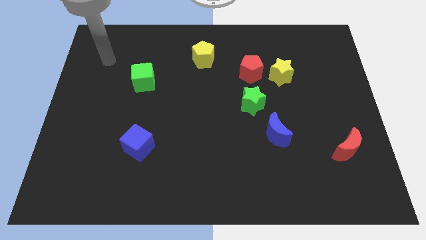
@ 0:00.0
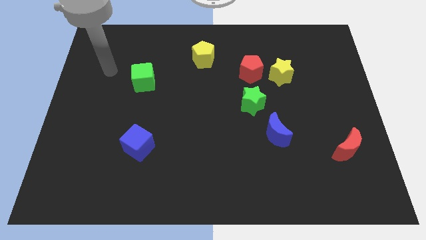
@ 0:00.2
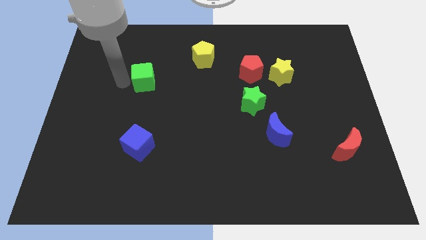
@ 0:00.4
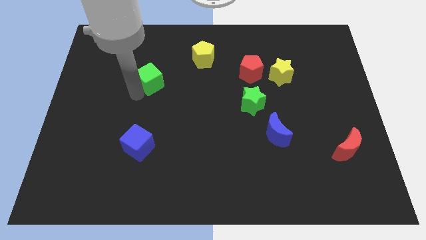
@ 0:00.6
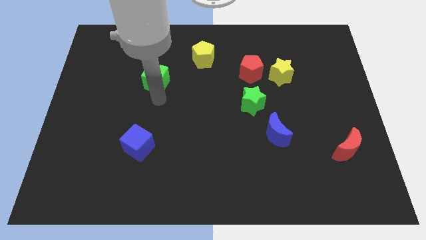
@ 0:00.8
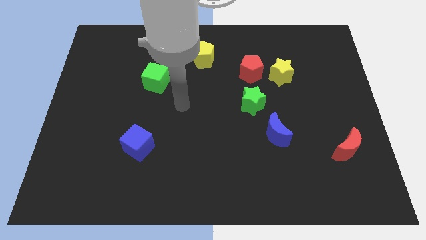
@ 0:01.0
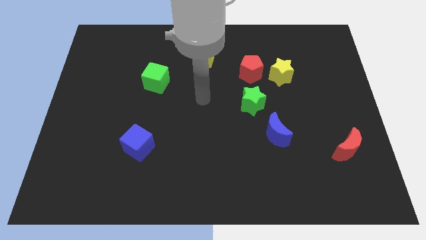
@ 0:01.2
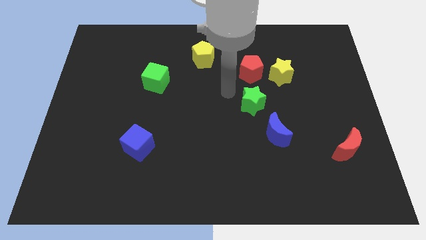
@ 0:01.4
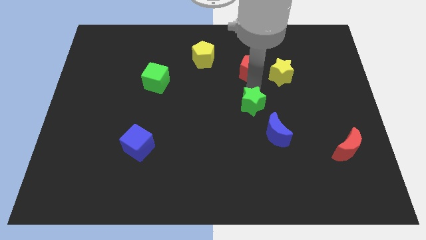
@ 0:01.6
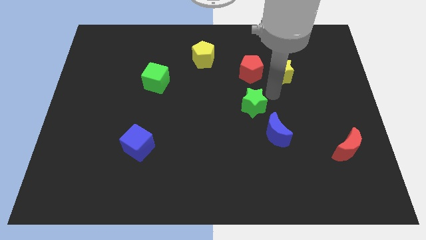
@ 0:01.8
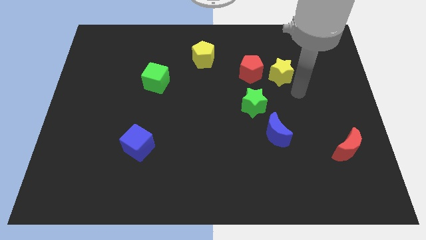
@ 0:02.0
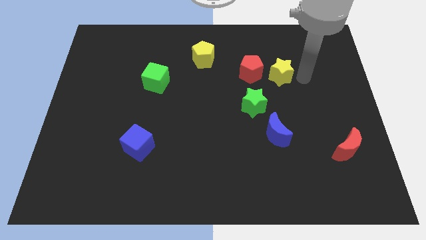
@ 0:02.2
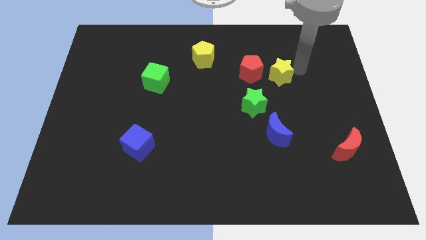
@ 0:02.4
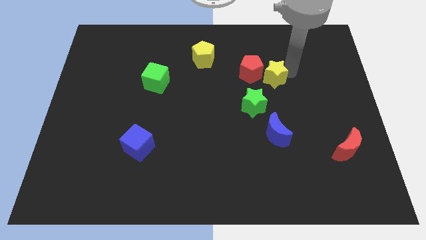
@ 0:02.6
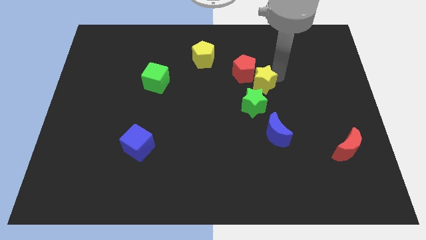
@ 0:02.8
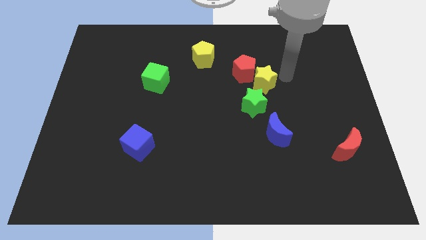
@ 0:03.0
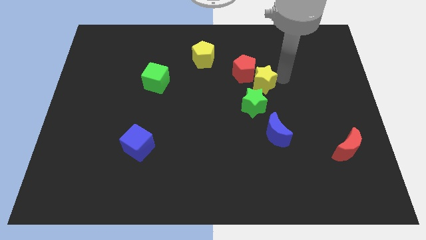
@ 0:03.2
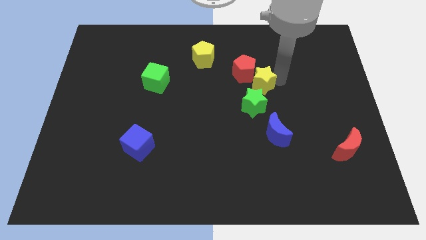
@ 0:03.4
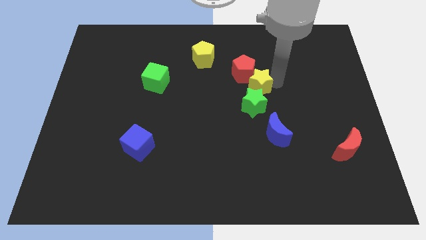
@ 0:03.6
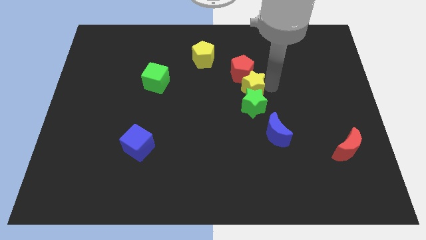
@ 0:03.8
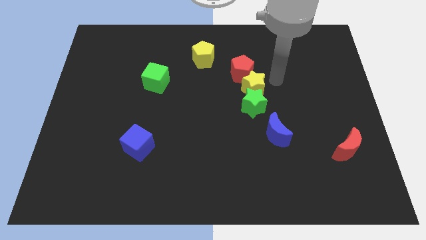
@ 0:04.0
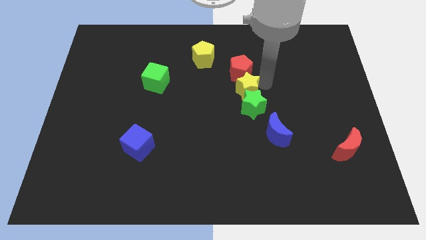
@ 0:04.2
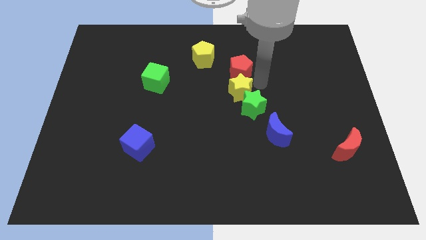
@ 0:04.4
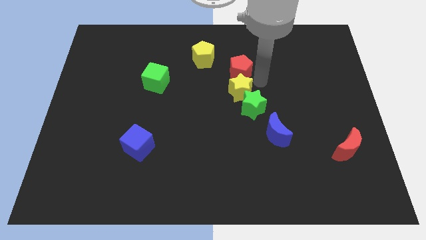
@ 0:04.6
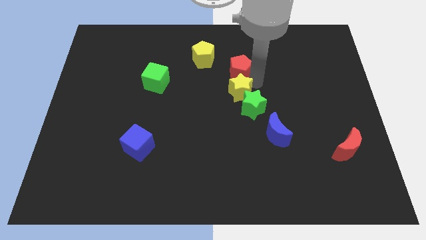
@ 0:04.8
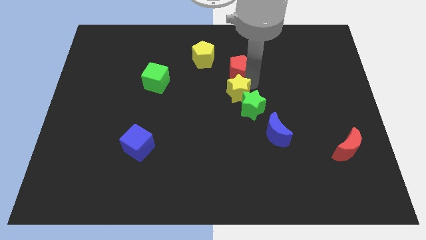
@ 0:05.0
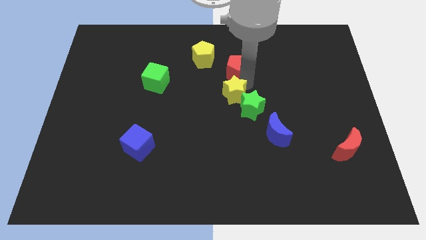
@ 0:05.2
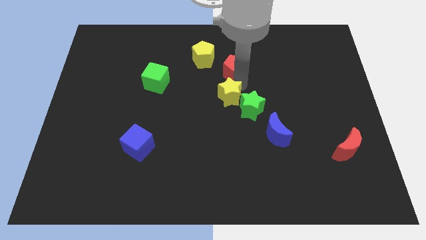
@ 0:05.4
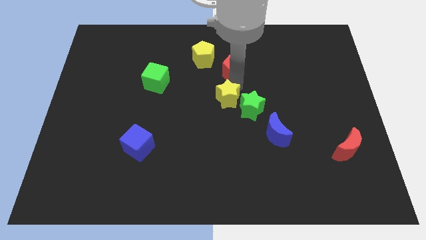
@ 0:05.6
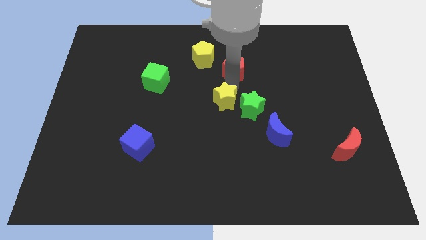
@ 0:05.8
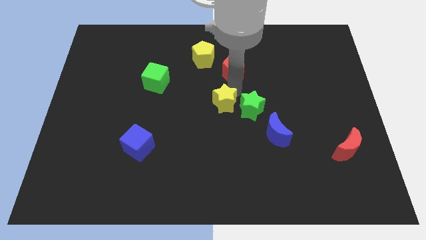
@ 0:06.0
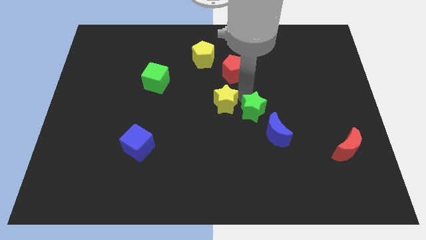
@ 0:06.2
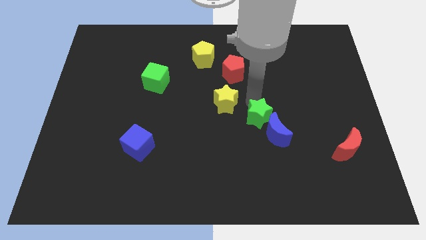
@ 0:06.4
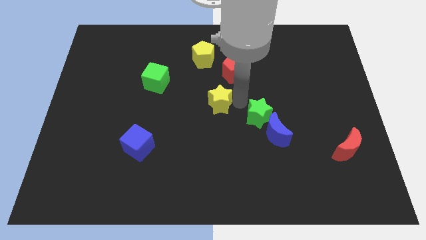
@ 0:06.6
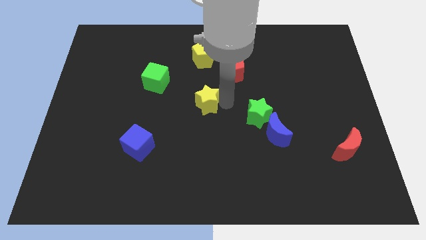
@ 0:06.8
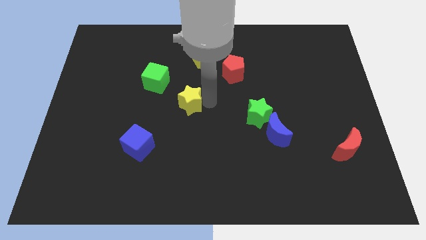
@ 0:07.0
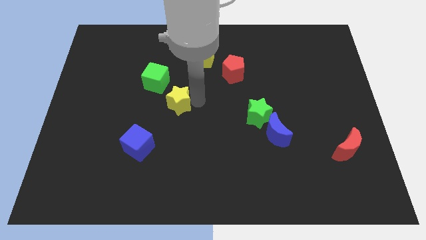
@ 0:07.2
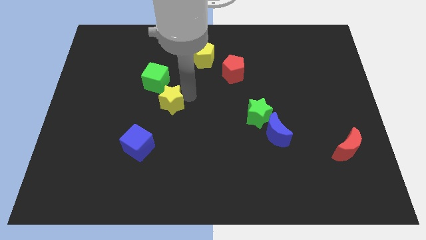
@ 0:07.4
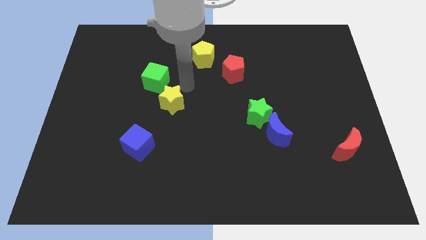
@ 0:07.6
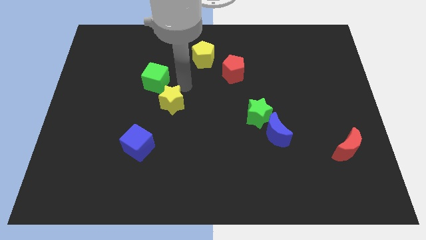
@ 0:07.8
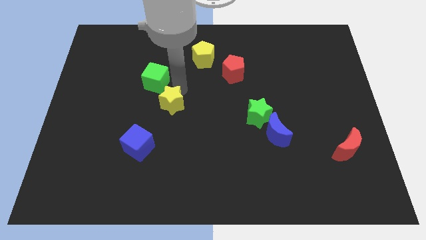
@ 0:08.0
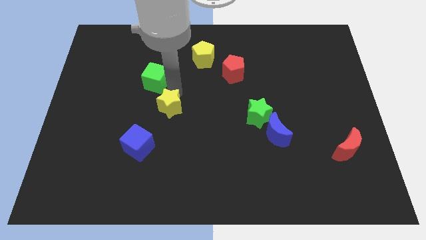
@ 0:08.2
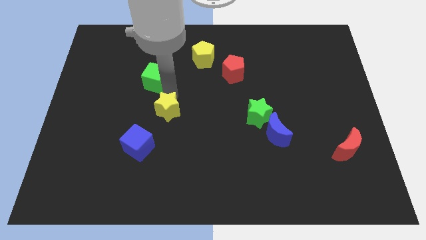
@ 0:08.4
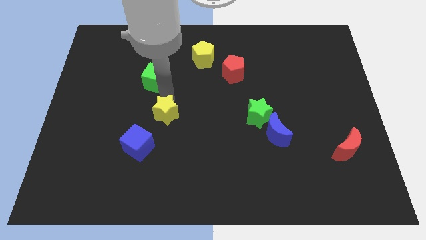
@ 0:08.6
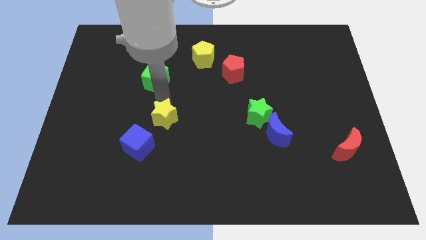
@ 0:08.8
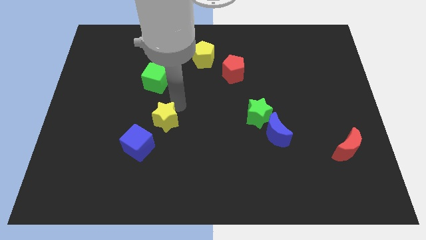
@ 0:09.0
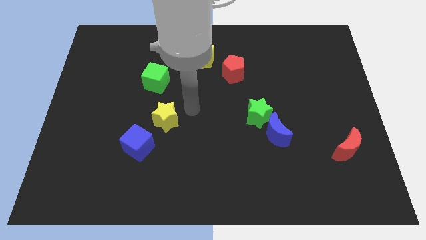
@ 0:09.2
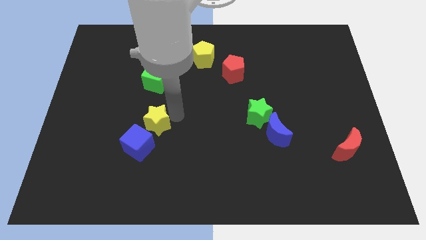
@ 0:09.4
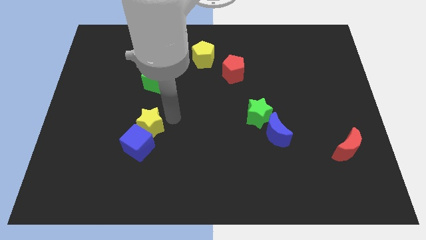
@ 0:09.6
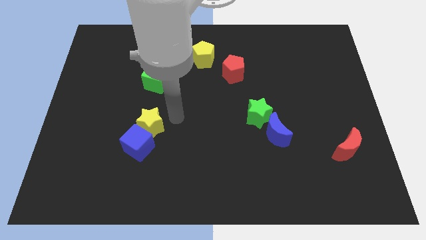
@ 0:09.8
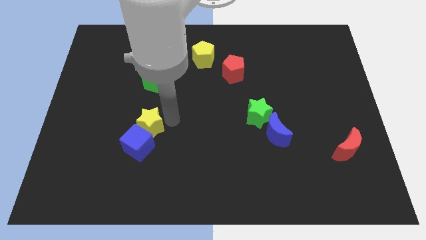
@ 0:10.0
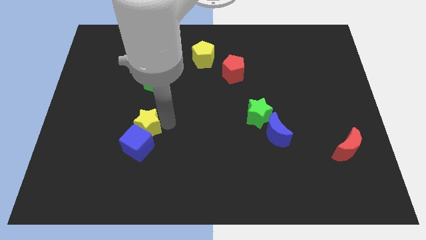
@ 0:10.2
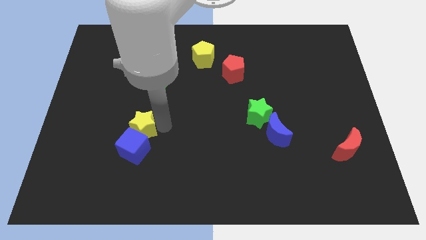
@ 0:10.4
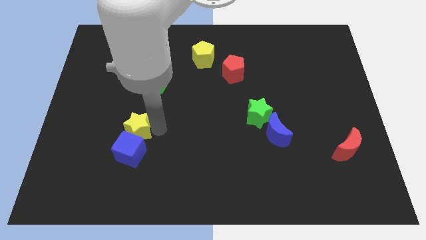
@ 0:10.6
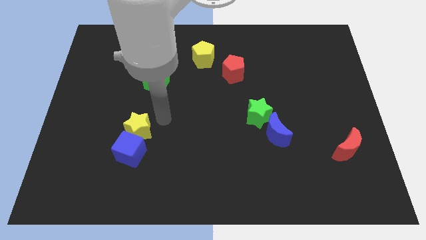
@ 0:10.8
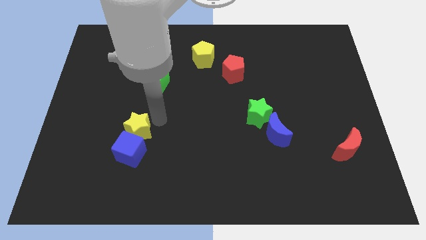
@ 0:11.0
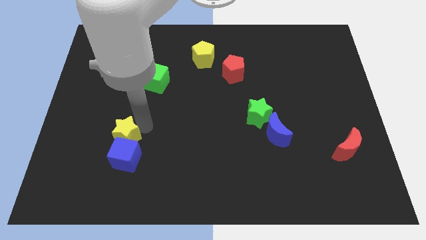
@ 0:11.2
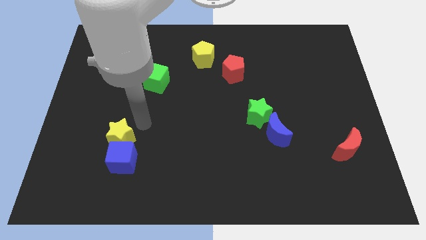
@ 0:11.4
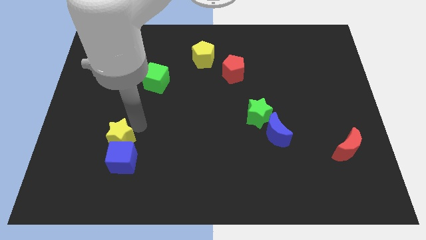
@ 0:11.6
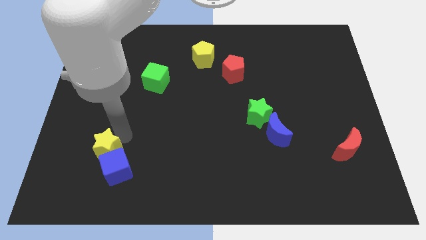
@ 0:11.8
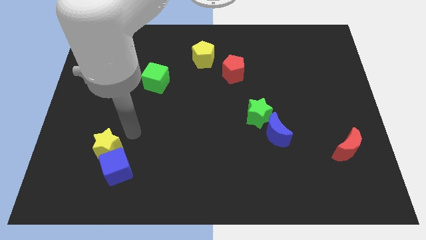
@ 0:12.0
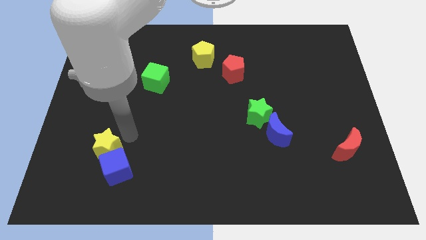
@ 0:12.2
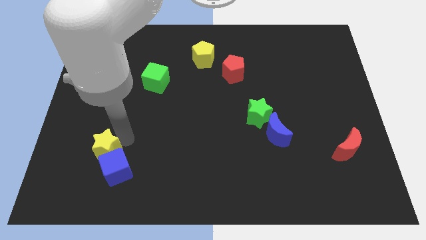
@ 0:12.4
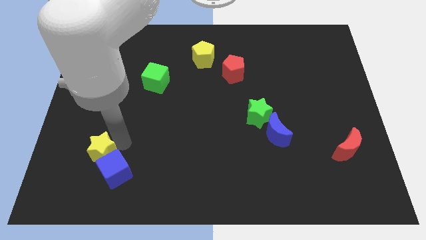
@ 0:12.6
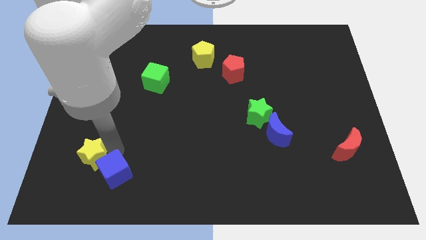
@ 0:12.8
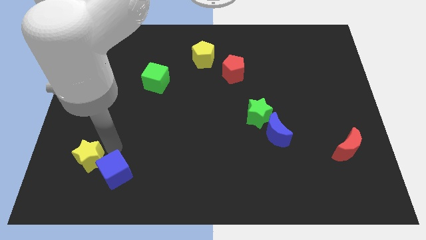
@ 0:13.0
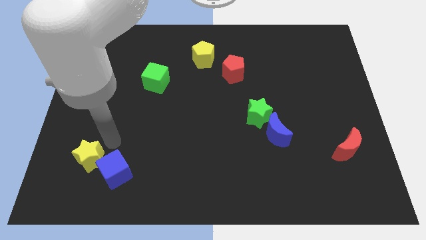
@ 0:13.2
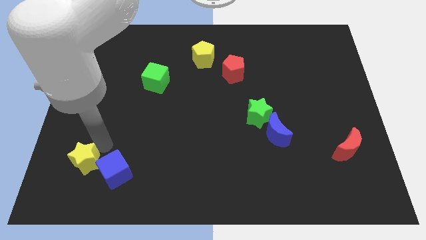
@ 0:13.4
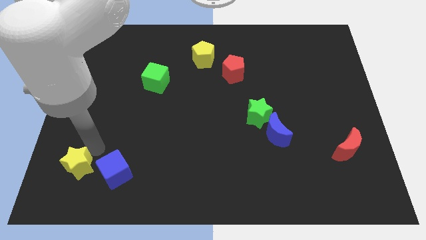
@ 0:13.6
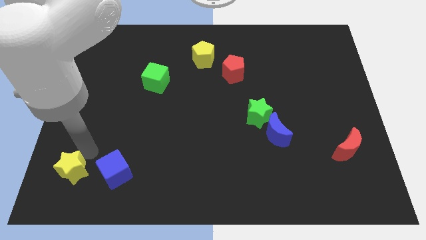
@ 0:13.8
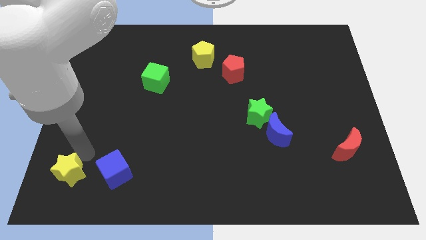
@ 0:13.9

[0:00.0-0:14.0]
put the yellow star to the lower left corner
